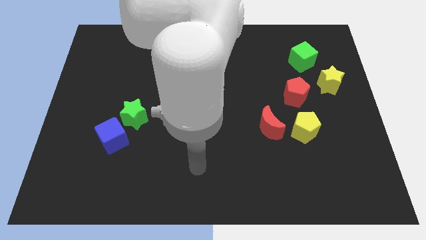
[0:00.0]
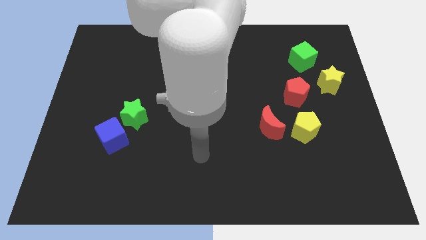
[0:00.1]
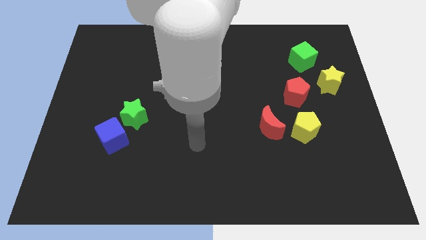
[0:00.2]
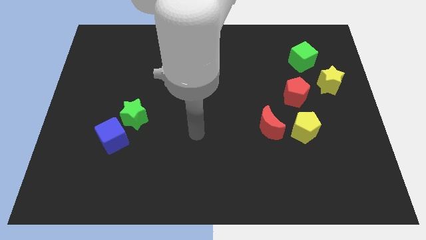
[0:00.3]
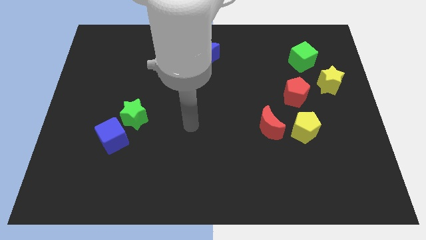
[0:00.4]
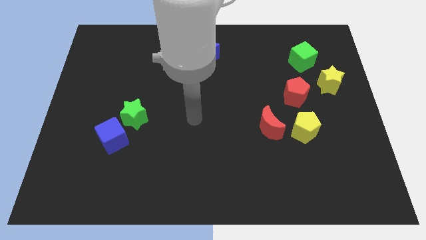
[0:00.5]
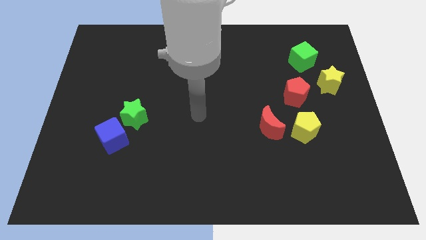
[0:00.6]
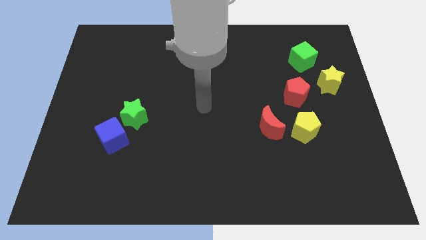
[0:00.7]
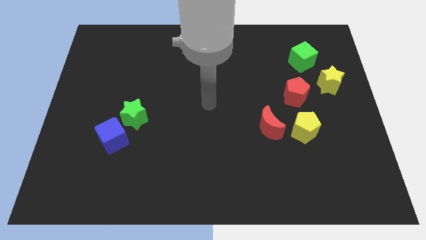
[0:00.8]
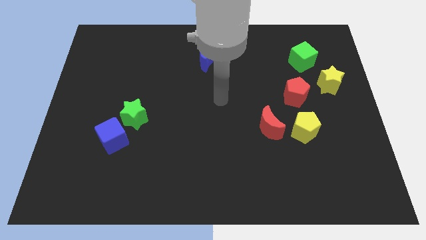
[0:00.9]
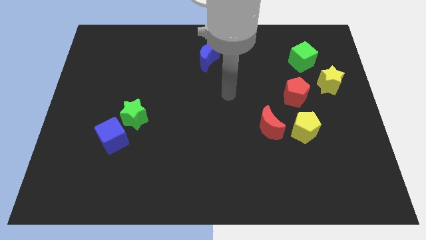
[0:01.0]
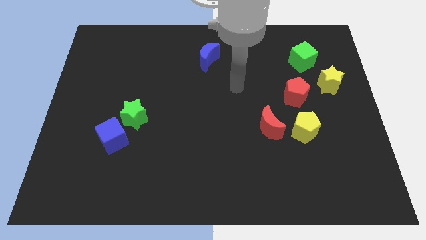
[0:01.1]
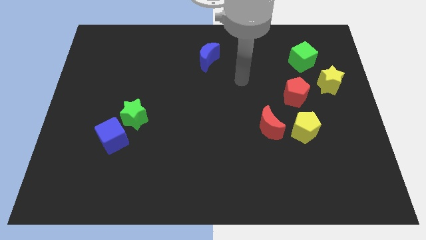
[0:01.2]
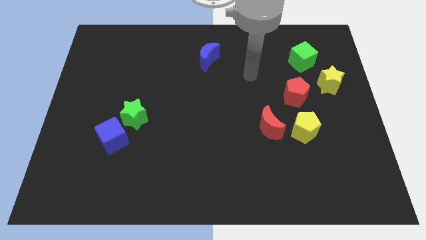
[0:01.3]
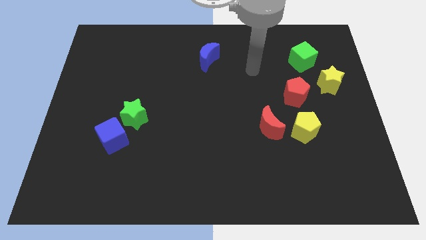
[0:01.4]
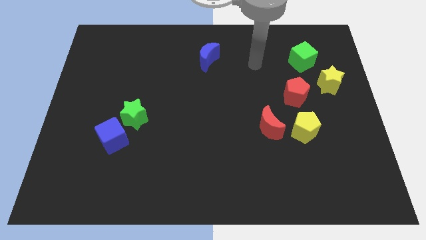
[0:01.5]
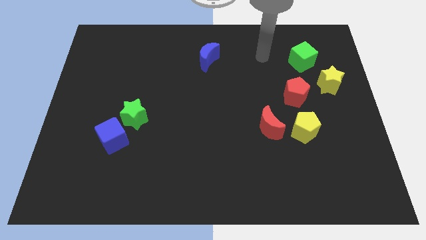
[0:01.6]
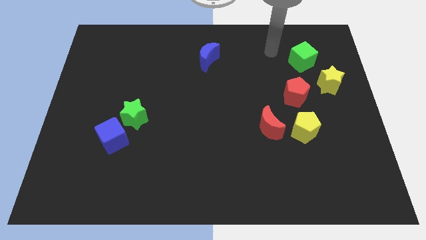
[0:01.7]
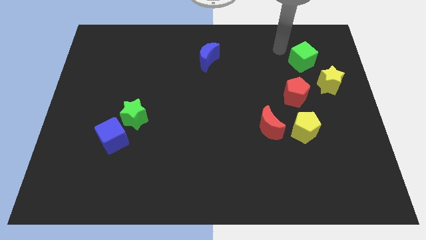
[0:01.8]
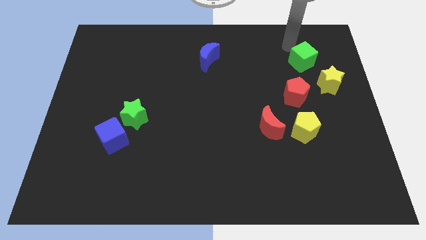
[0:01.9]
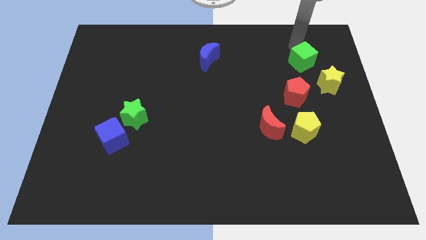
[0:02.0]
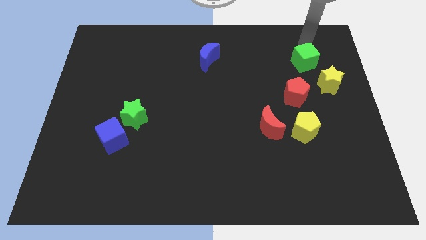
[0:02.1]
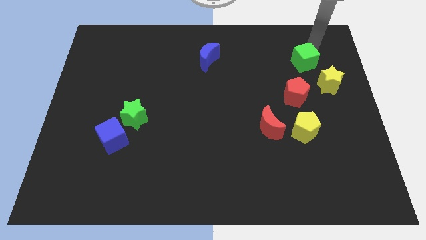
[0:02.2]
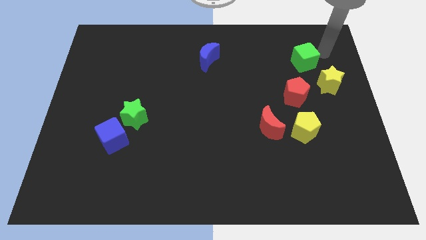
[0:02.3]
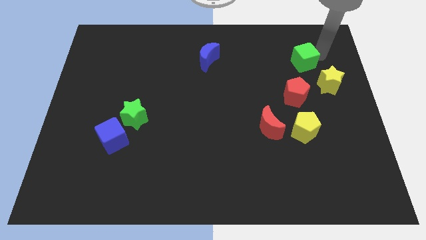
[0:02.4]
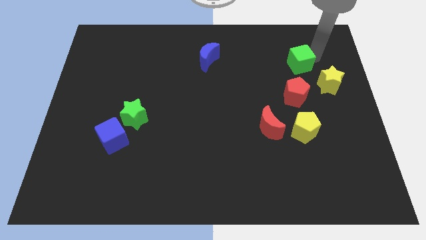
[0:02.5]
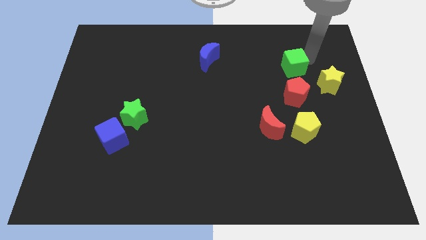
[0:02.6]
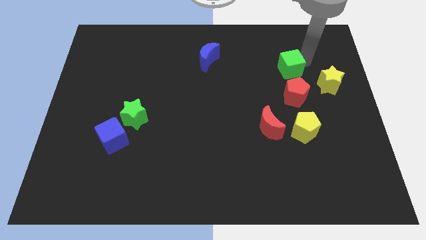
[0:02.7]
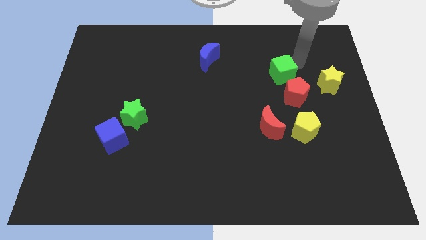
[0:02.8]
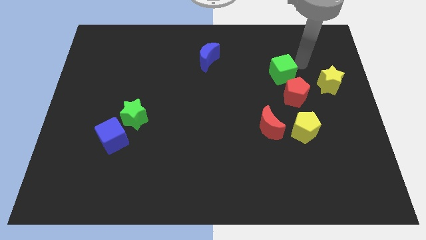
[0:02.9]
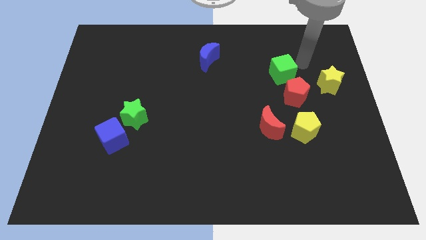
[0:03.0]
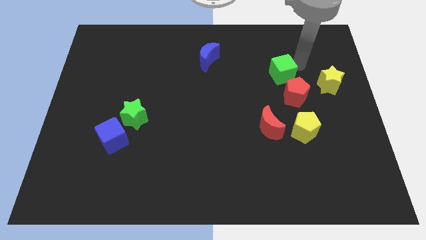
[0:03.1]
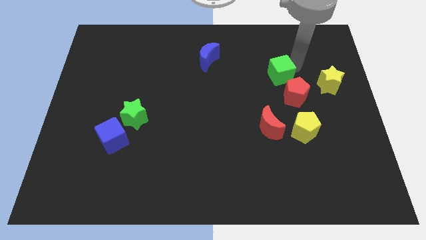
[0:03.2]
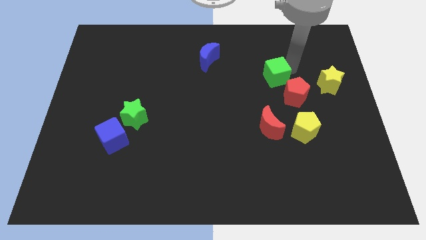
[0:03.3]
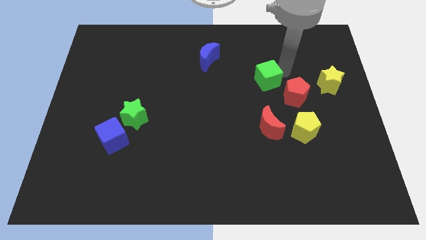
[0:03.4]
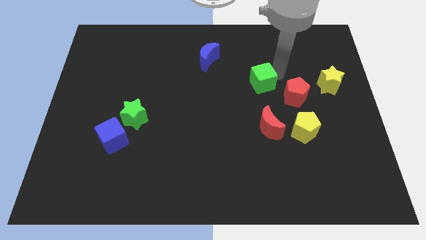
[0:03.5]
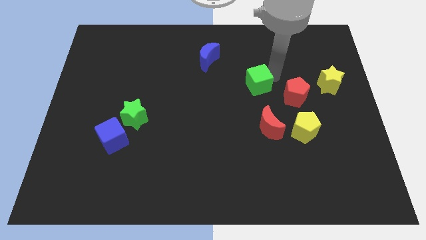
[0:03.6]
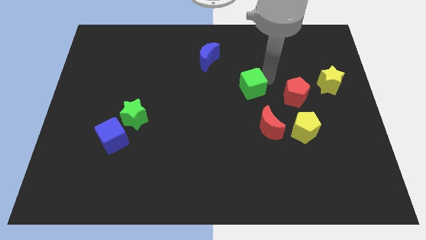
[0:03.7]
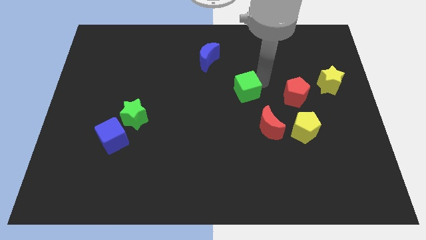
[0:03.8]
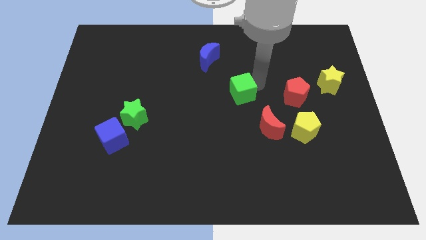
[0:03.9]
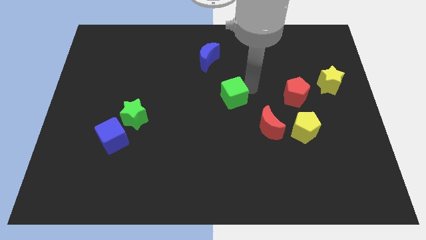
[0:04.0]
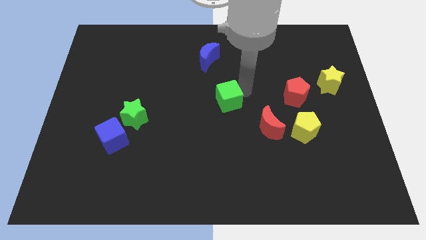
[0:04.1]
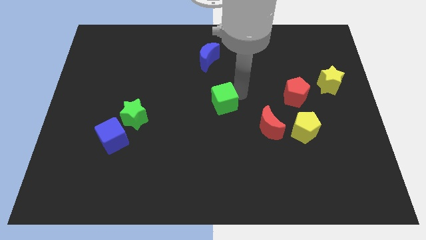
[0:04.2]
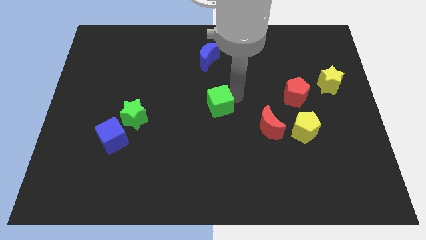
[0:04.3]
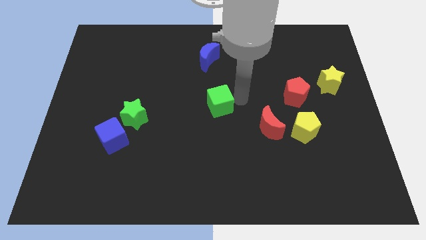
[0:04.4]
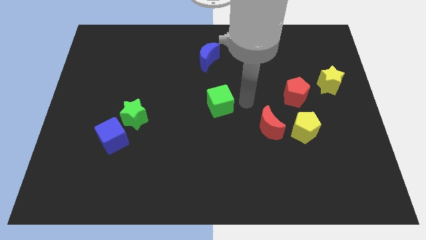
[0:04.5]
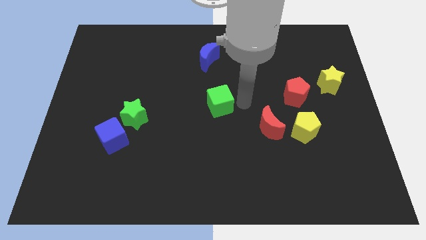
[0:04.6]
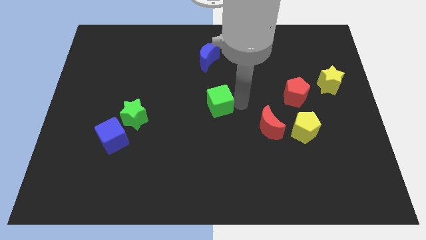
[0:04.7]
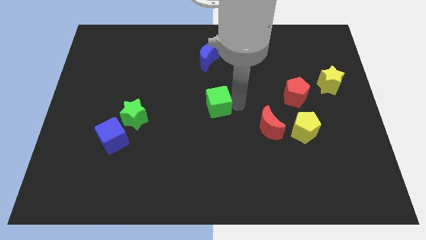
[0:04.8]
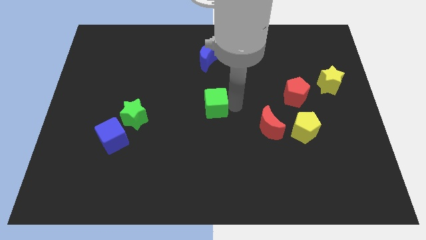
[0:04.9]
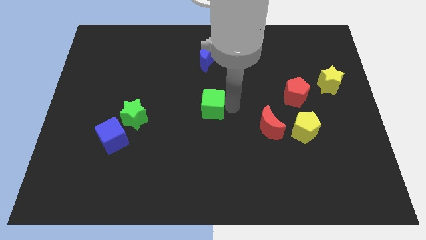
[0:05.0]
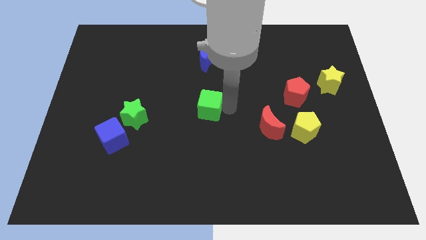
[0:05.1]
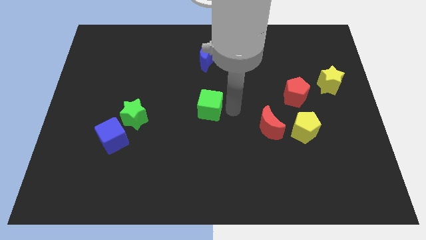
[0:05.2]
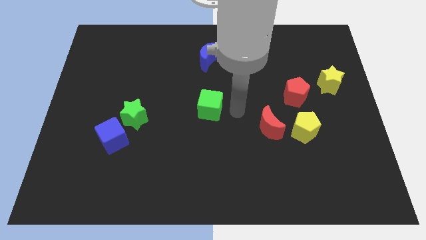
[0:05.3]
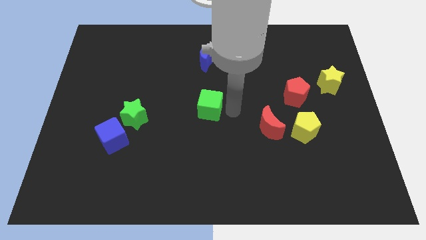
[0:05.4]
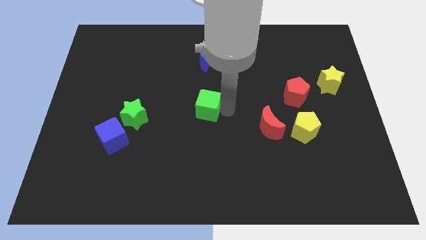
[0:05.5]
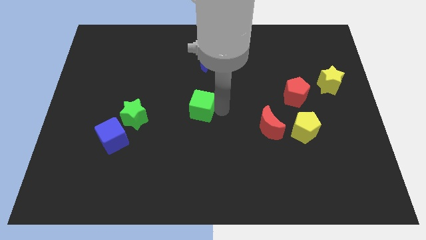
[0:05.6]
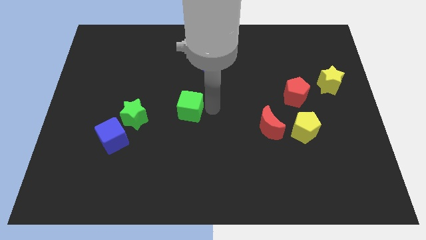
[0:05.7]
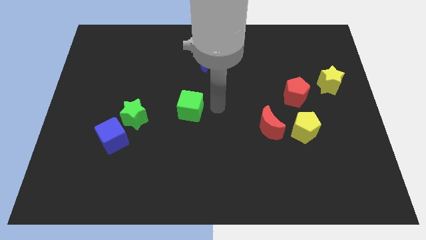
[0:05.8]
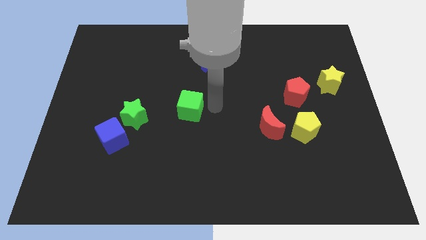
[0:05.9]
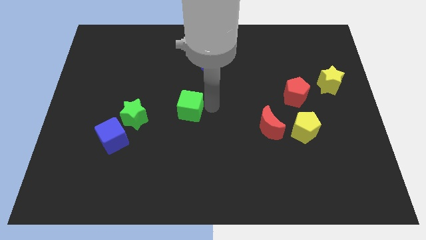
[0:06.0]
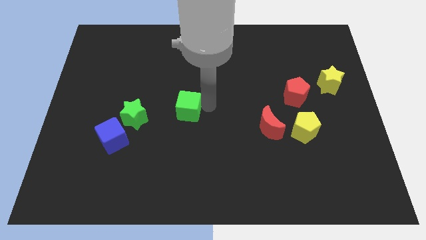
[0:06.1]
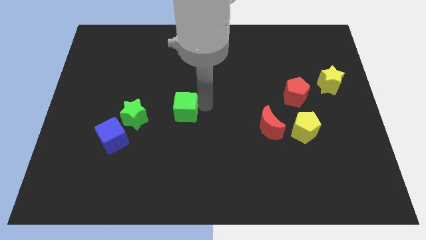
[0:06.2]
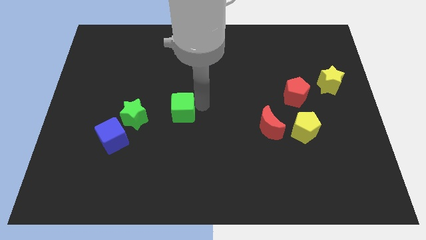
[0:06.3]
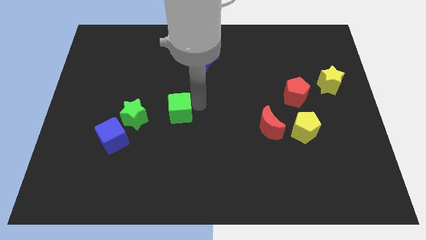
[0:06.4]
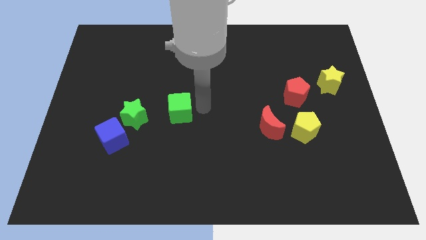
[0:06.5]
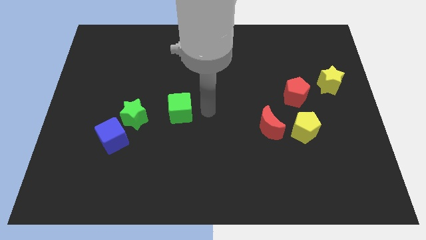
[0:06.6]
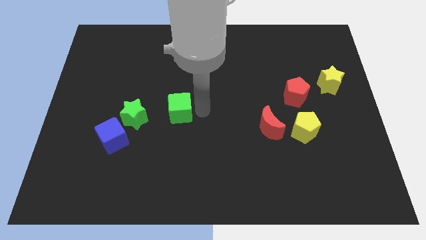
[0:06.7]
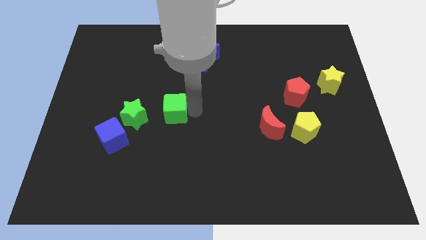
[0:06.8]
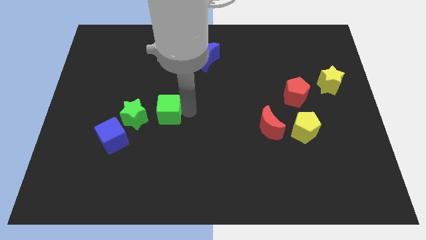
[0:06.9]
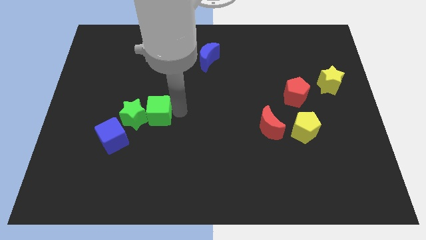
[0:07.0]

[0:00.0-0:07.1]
slide the green cube close to the green star

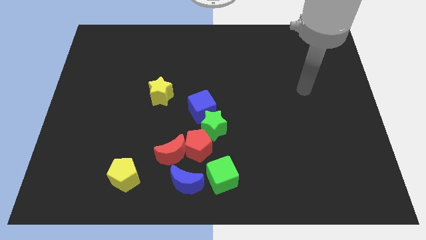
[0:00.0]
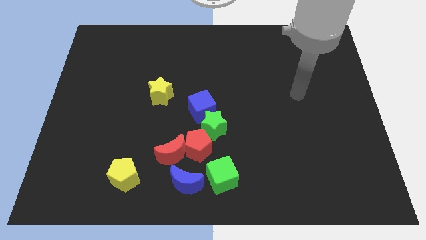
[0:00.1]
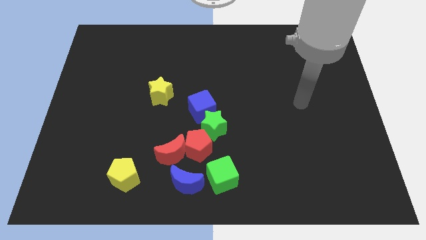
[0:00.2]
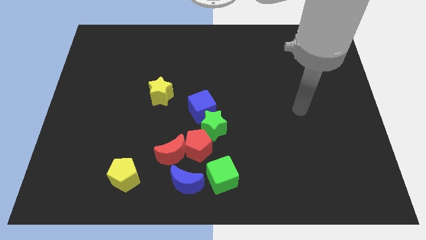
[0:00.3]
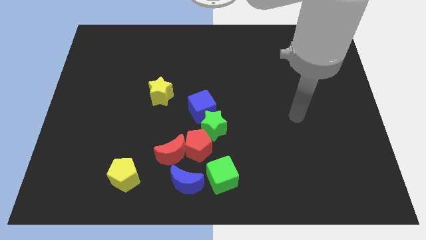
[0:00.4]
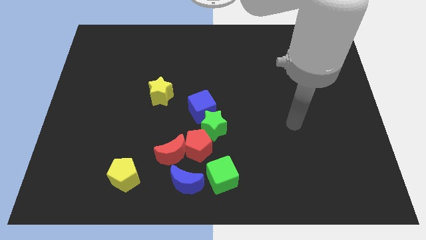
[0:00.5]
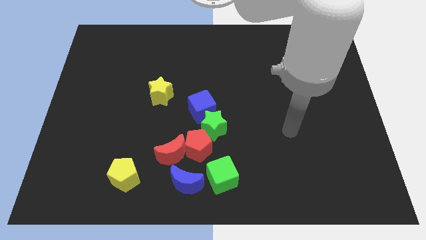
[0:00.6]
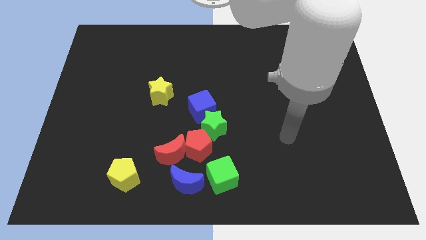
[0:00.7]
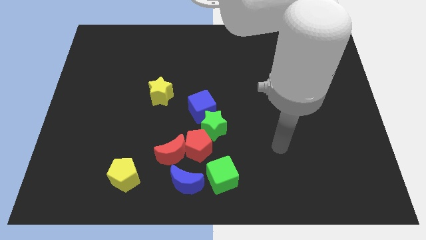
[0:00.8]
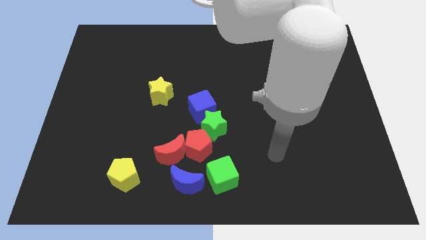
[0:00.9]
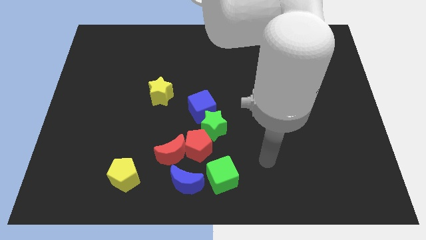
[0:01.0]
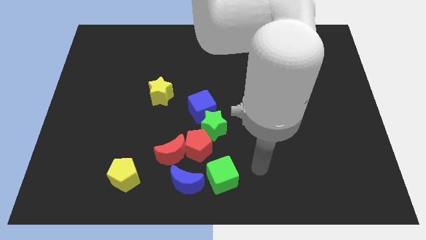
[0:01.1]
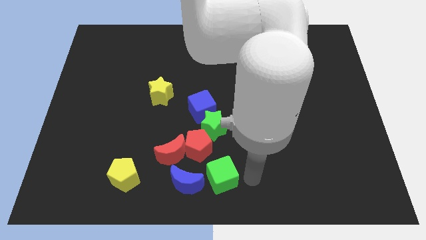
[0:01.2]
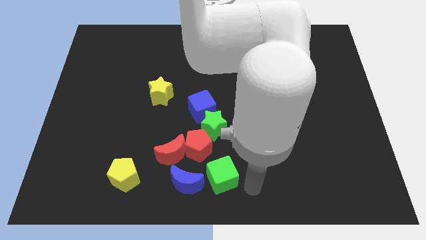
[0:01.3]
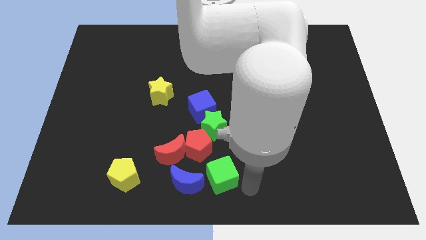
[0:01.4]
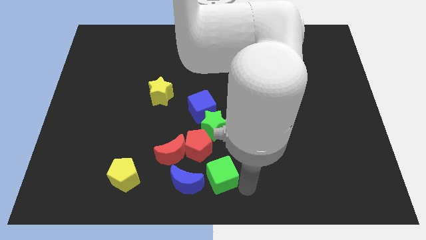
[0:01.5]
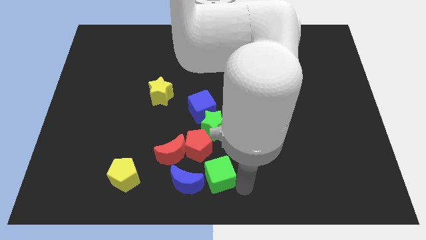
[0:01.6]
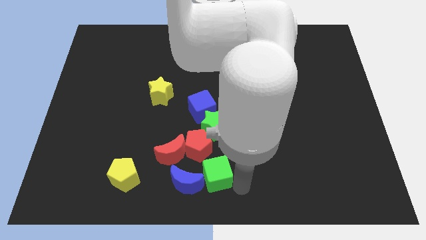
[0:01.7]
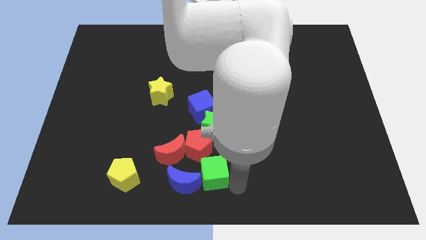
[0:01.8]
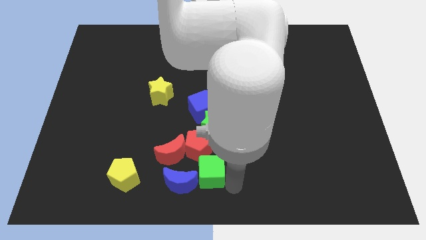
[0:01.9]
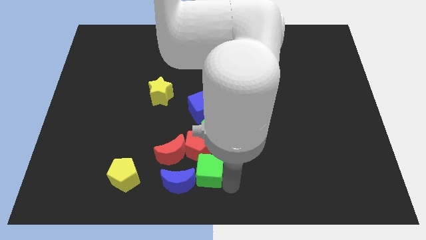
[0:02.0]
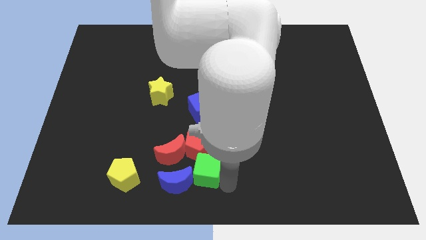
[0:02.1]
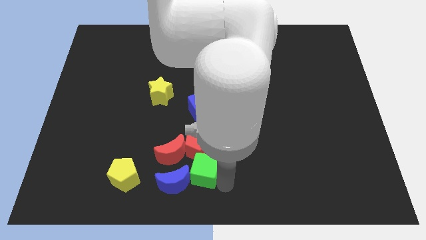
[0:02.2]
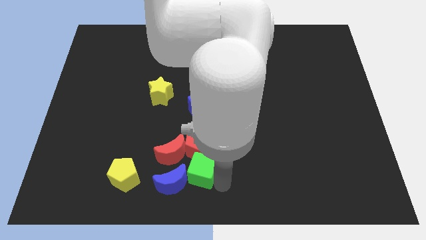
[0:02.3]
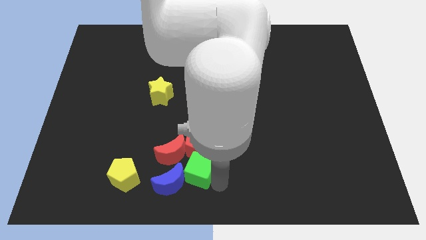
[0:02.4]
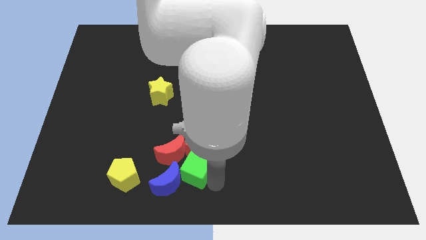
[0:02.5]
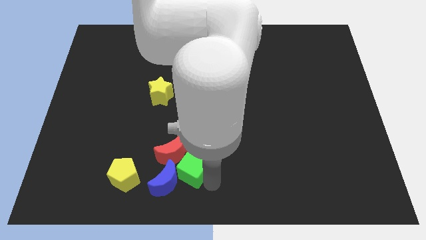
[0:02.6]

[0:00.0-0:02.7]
move the green cube next to the red moon
